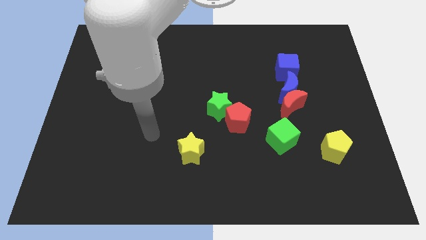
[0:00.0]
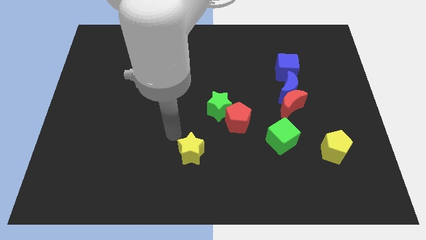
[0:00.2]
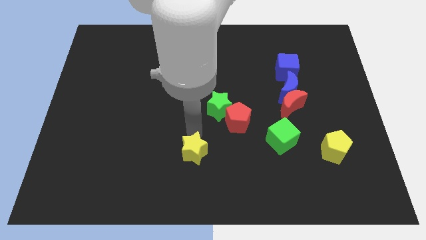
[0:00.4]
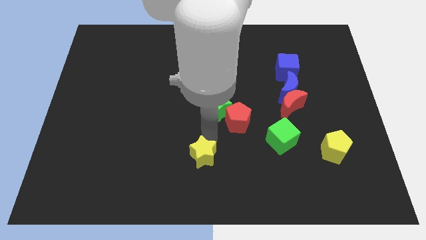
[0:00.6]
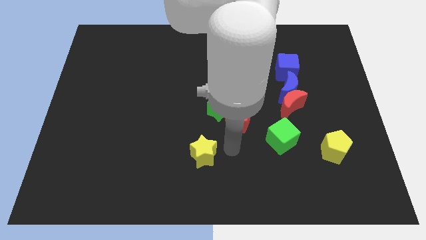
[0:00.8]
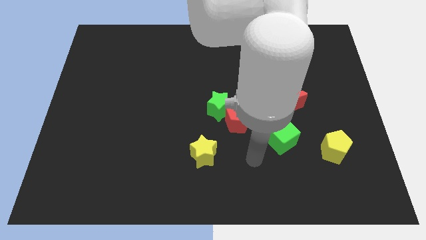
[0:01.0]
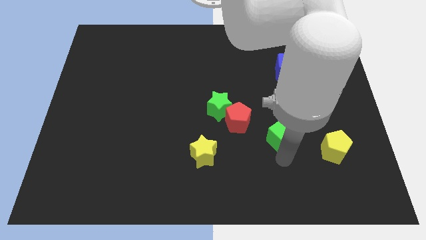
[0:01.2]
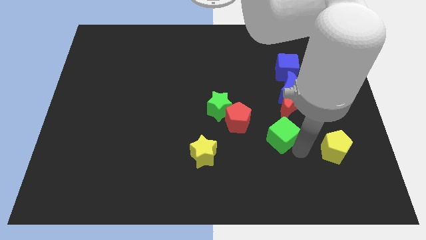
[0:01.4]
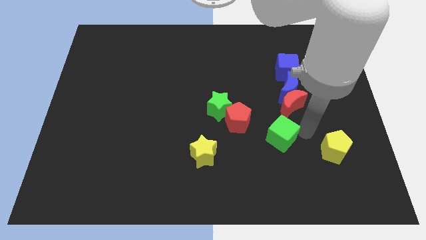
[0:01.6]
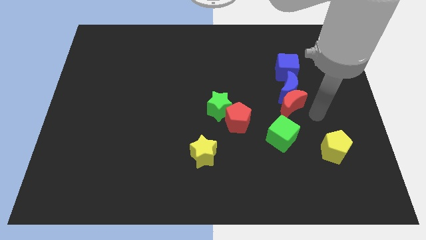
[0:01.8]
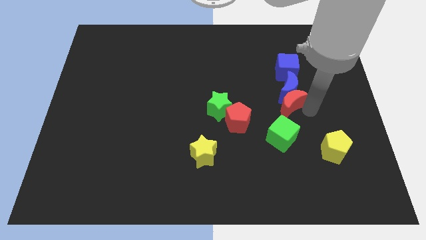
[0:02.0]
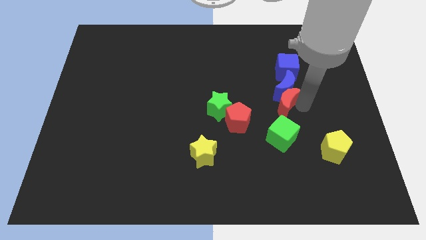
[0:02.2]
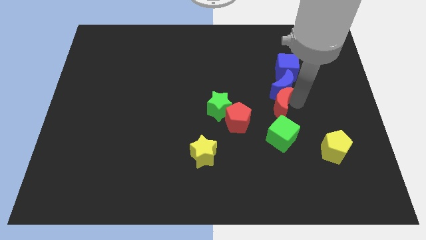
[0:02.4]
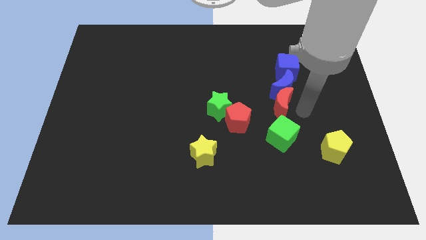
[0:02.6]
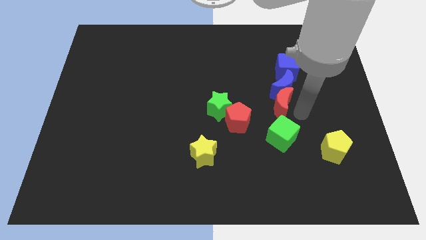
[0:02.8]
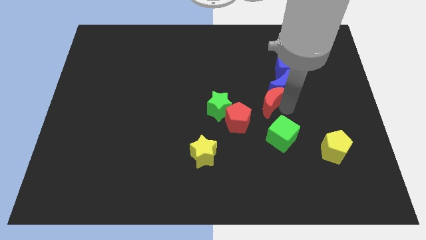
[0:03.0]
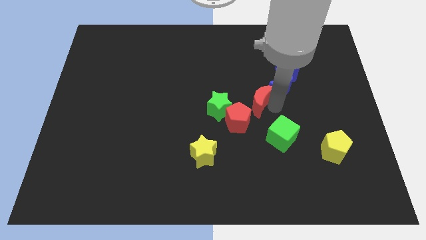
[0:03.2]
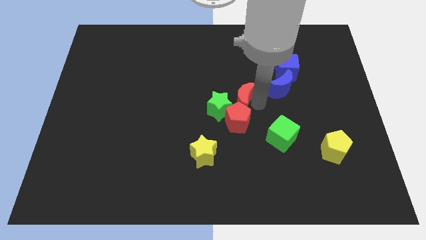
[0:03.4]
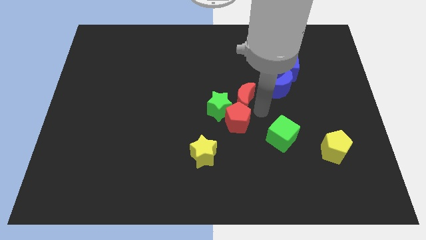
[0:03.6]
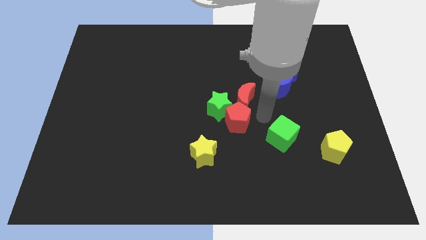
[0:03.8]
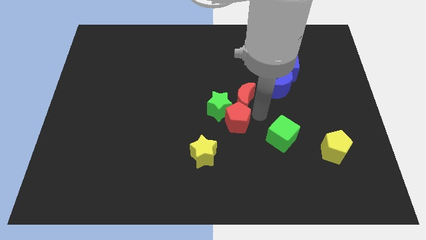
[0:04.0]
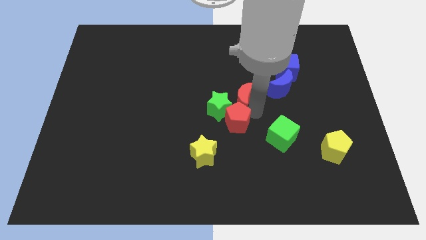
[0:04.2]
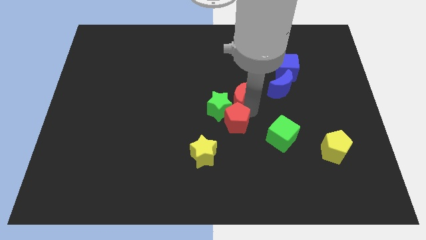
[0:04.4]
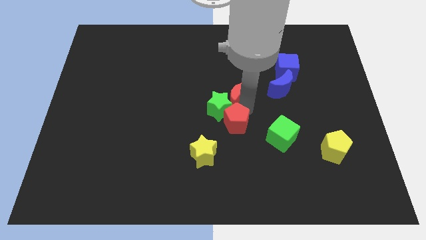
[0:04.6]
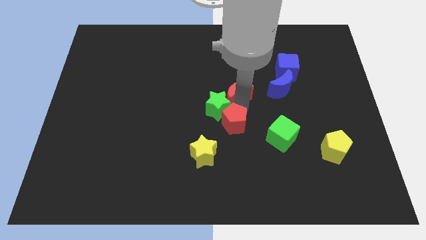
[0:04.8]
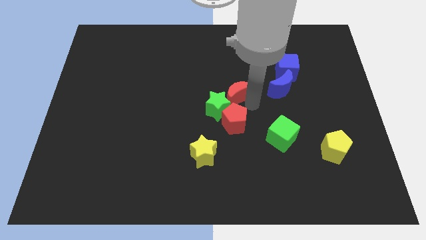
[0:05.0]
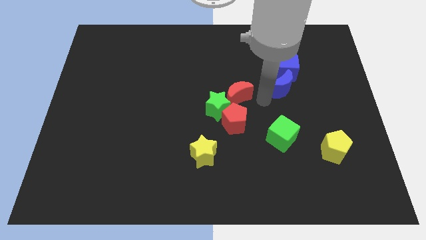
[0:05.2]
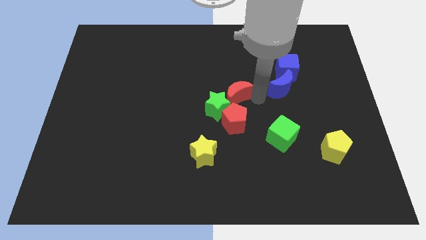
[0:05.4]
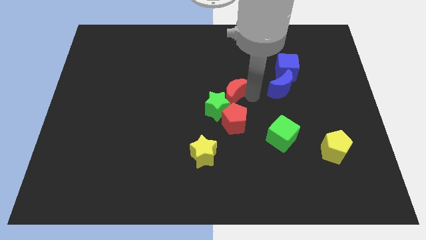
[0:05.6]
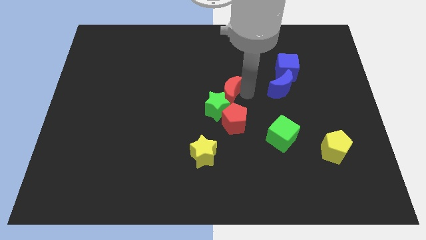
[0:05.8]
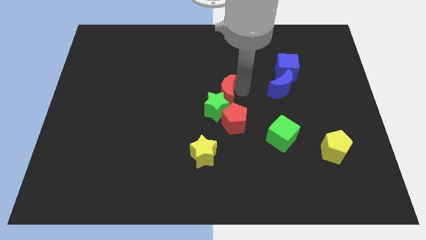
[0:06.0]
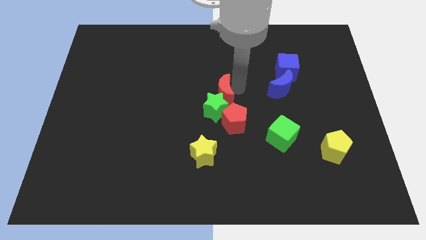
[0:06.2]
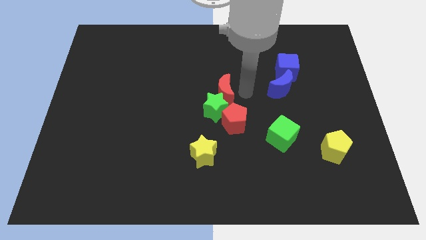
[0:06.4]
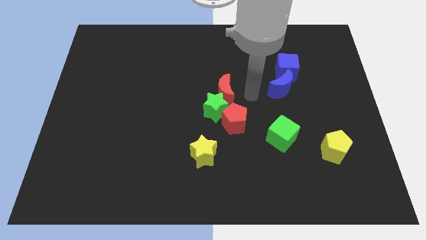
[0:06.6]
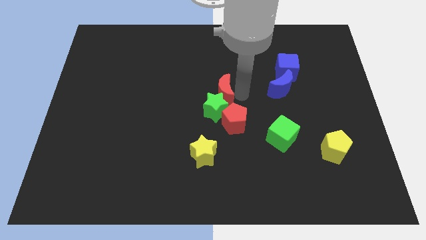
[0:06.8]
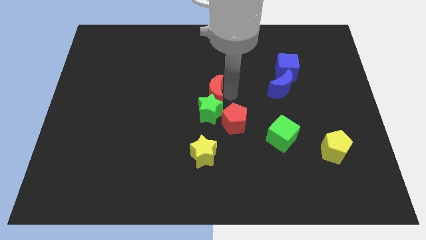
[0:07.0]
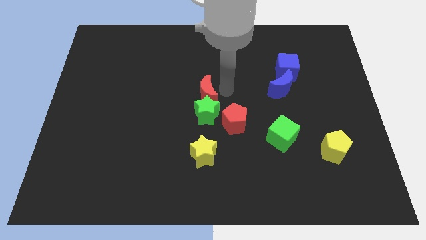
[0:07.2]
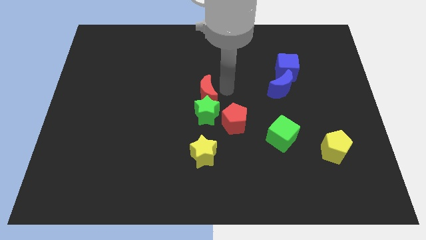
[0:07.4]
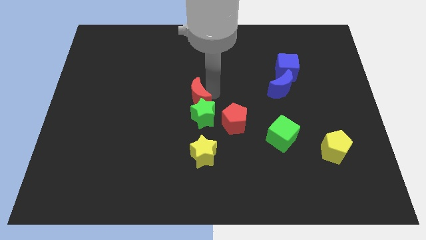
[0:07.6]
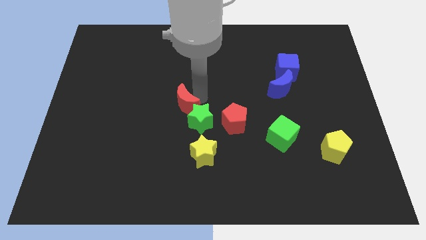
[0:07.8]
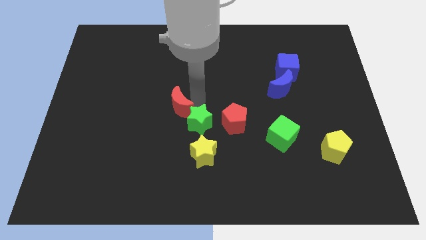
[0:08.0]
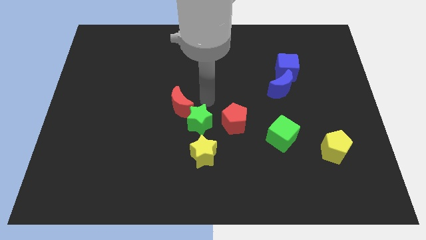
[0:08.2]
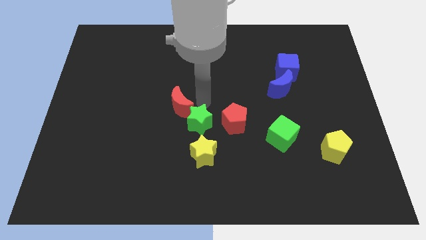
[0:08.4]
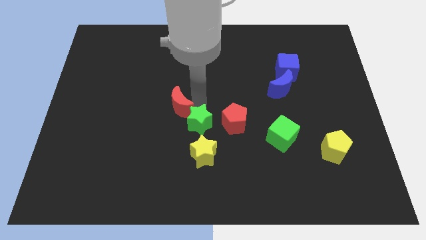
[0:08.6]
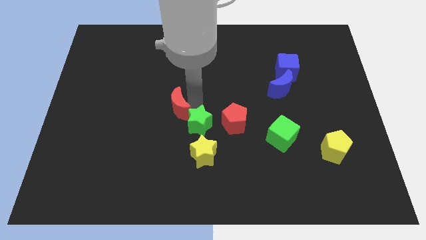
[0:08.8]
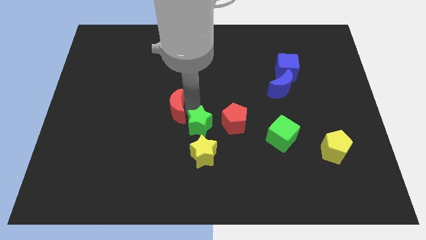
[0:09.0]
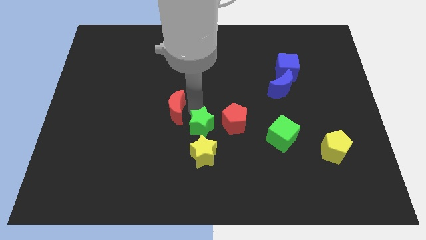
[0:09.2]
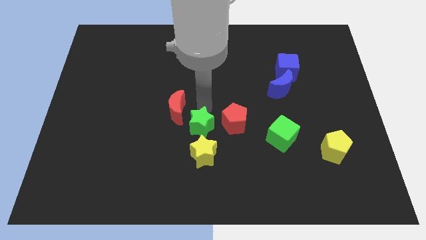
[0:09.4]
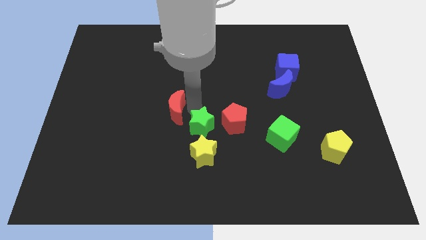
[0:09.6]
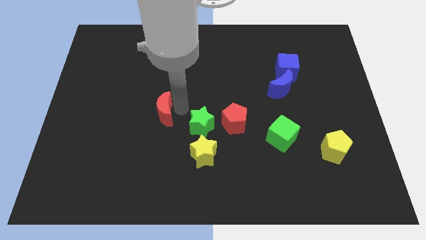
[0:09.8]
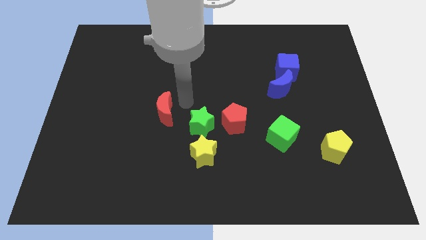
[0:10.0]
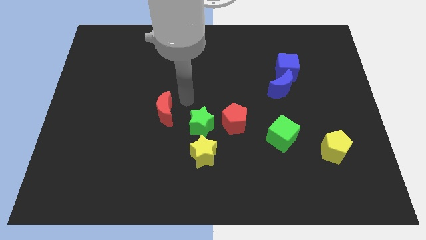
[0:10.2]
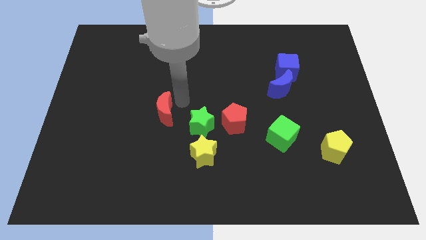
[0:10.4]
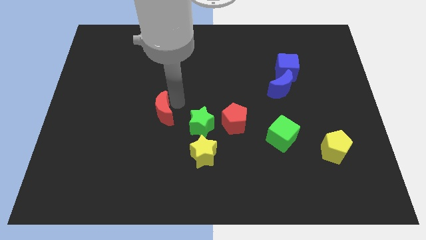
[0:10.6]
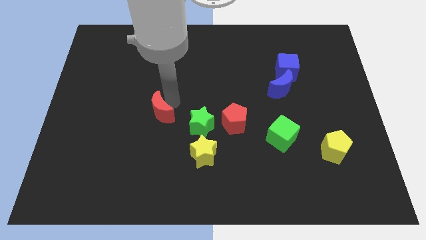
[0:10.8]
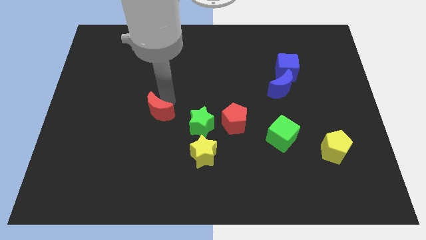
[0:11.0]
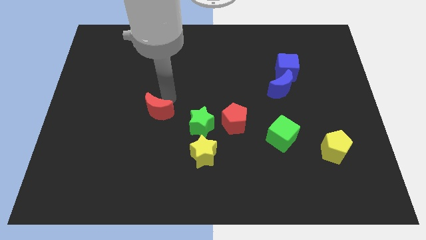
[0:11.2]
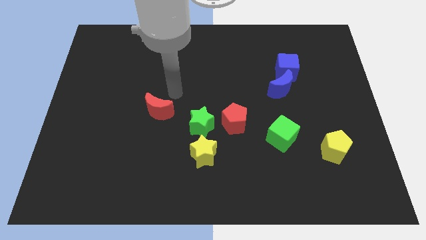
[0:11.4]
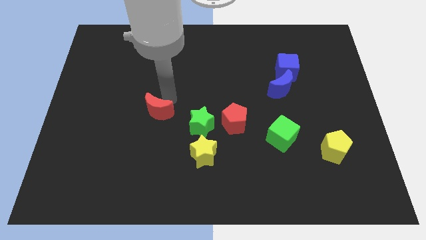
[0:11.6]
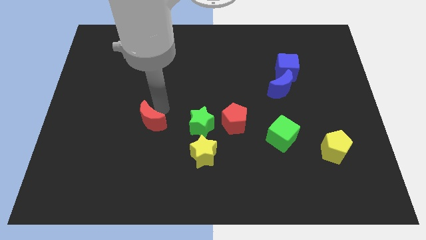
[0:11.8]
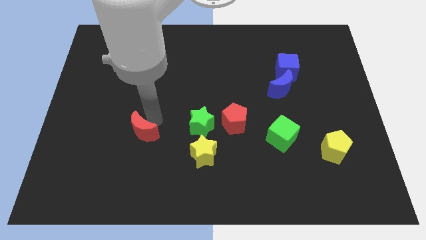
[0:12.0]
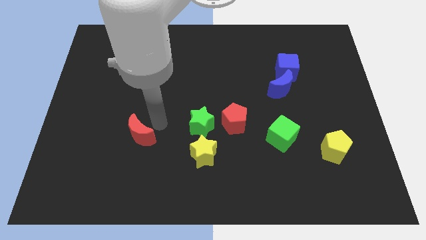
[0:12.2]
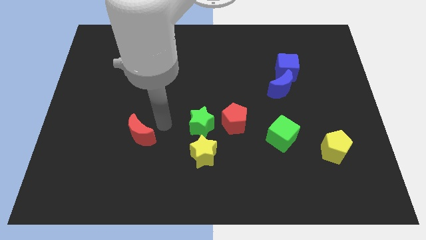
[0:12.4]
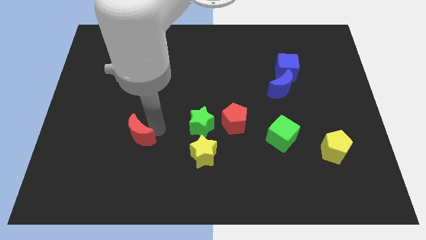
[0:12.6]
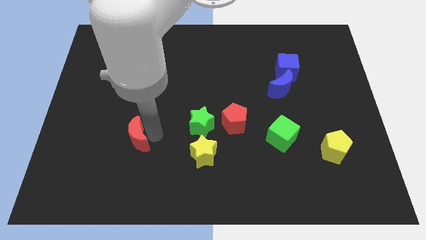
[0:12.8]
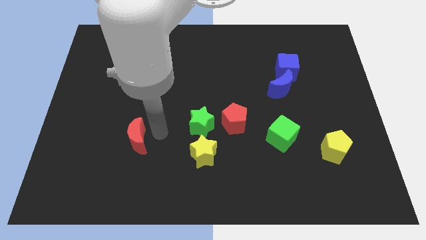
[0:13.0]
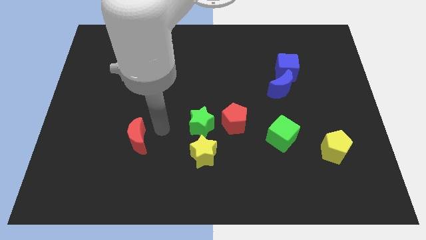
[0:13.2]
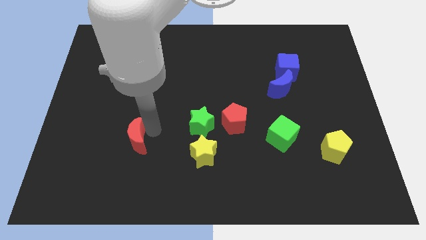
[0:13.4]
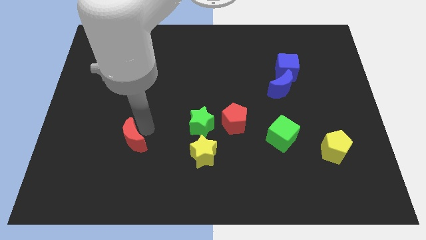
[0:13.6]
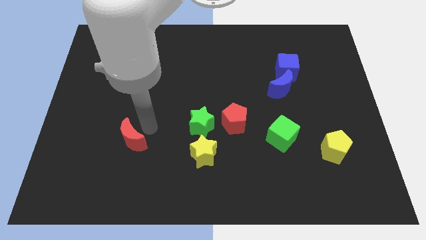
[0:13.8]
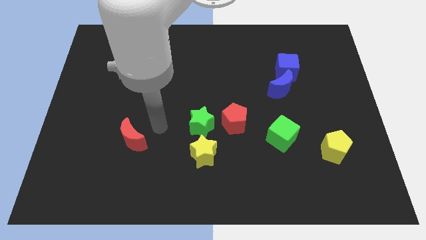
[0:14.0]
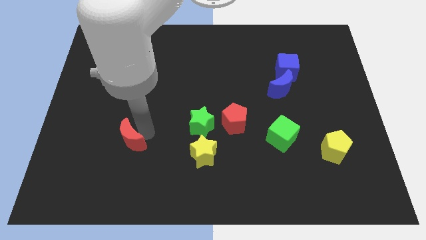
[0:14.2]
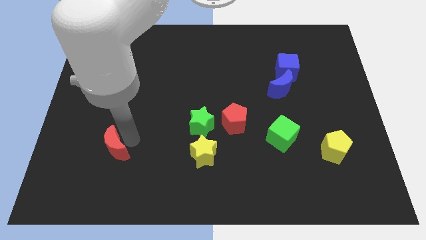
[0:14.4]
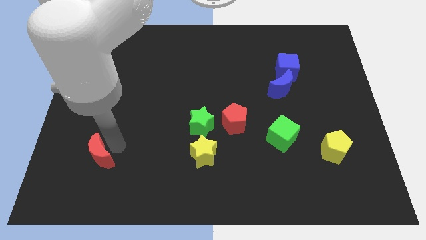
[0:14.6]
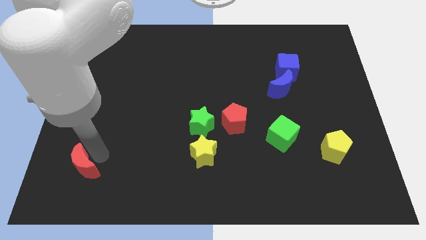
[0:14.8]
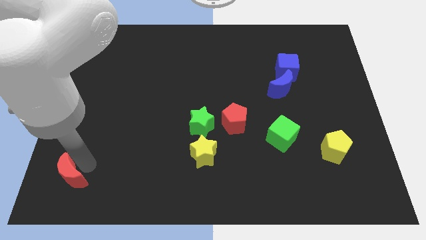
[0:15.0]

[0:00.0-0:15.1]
move the red moon to the bottom left
